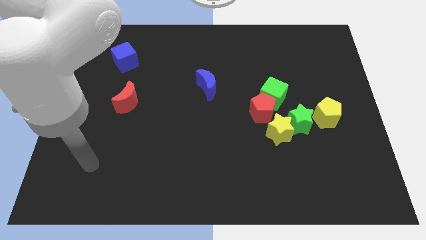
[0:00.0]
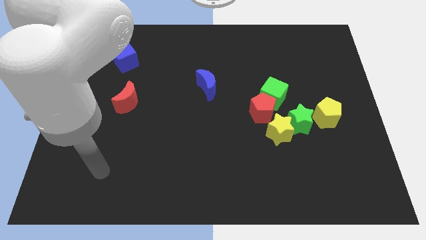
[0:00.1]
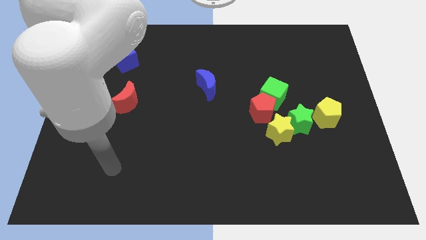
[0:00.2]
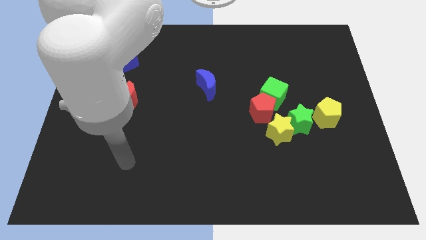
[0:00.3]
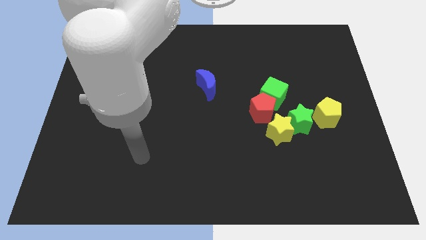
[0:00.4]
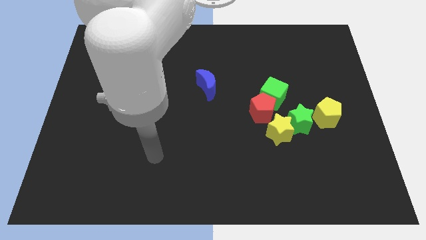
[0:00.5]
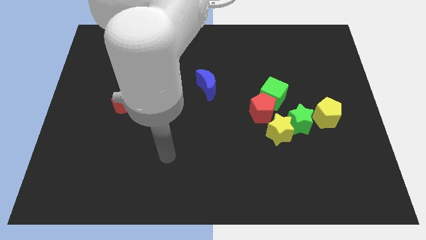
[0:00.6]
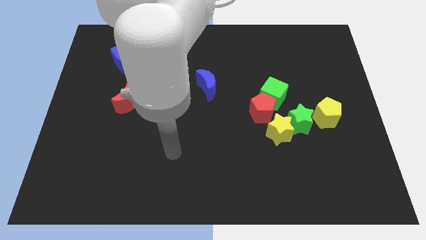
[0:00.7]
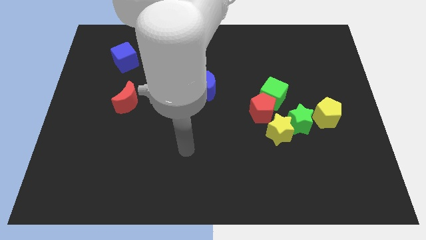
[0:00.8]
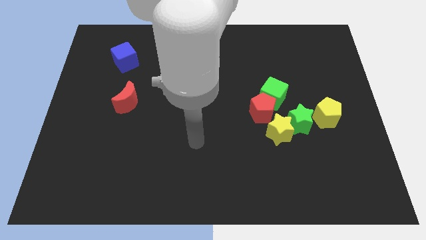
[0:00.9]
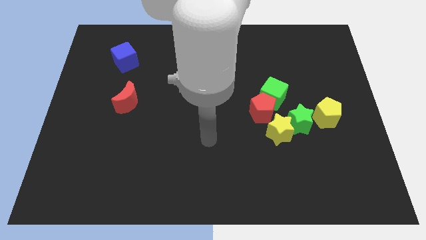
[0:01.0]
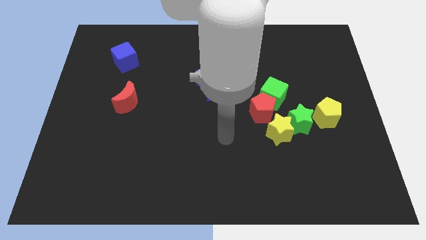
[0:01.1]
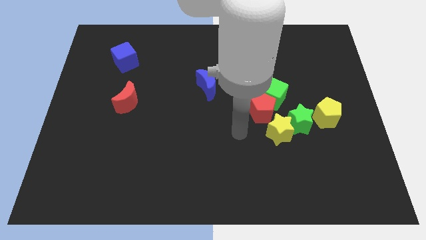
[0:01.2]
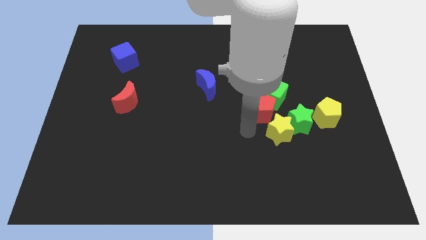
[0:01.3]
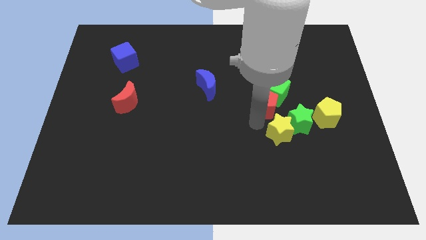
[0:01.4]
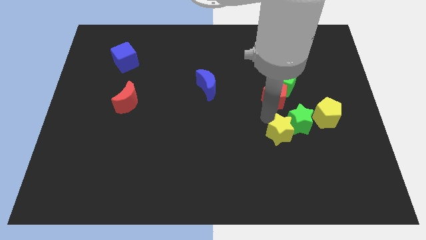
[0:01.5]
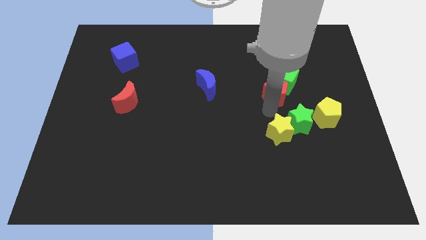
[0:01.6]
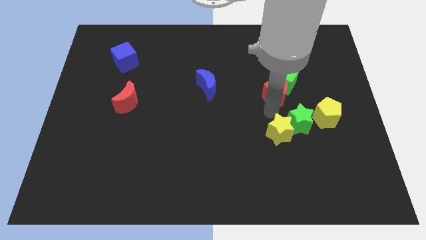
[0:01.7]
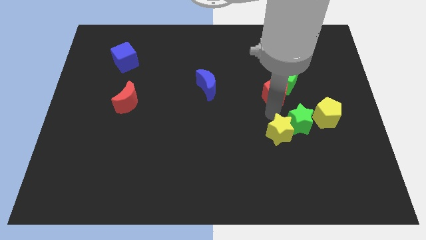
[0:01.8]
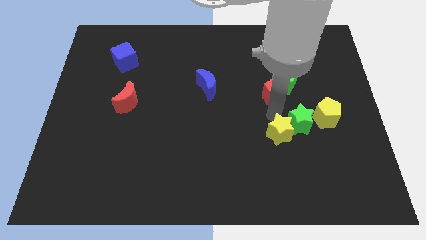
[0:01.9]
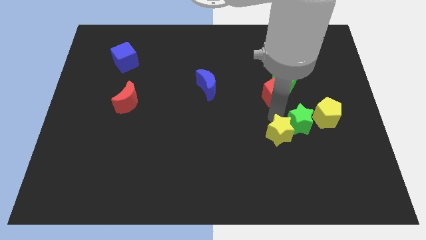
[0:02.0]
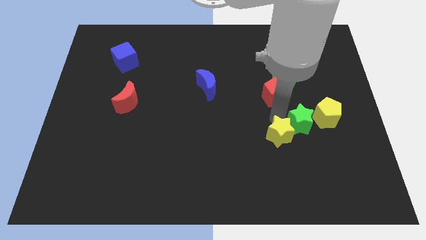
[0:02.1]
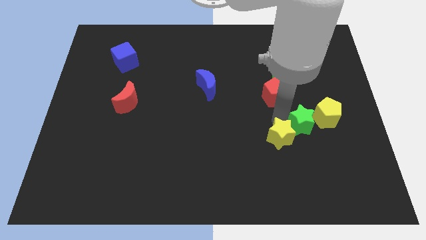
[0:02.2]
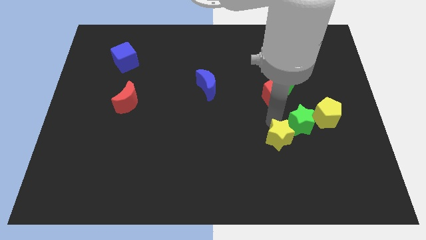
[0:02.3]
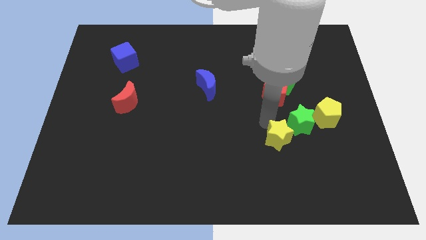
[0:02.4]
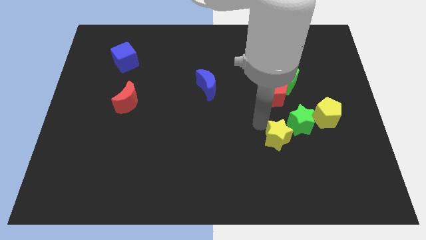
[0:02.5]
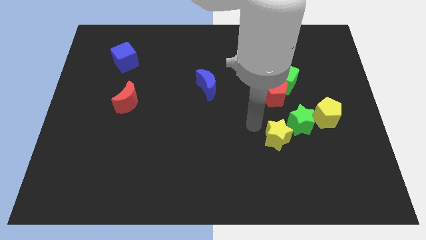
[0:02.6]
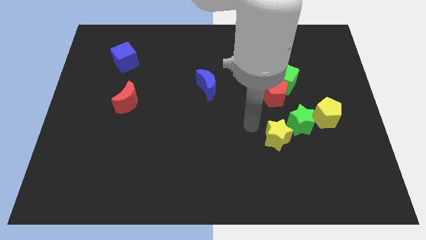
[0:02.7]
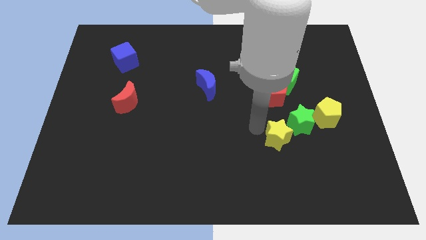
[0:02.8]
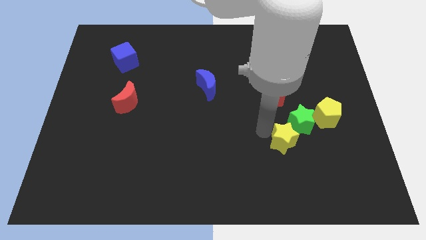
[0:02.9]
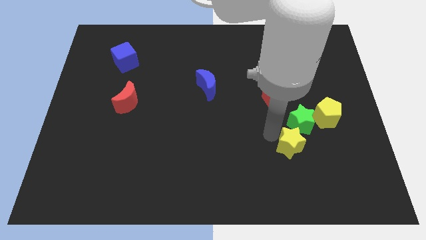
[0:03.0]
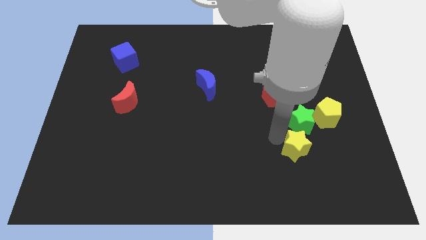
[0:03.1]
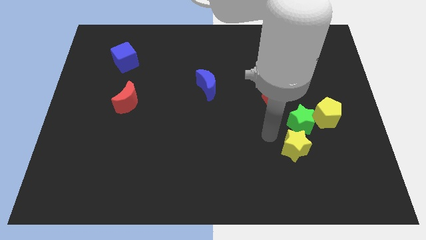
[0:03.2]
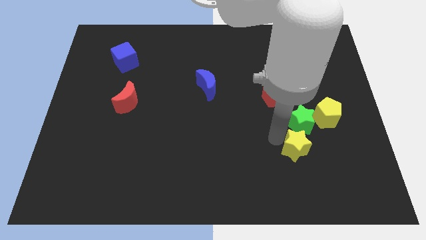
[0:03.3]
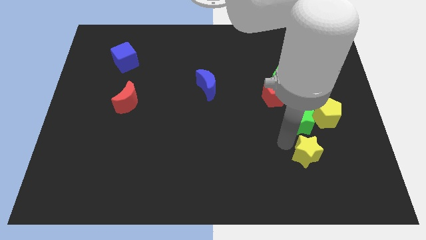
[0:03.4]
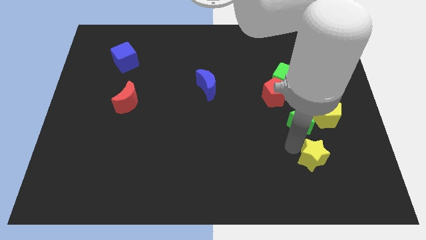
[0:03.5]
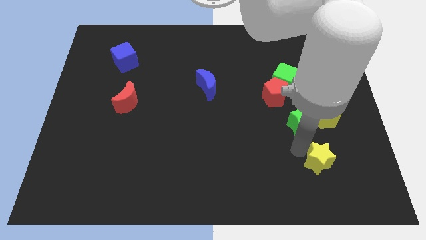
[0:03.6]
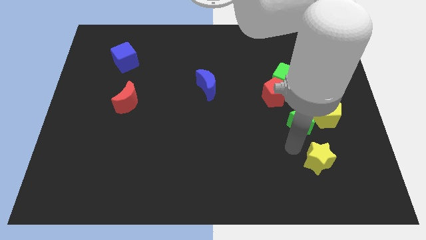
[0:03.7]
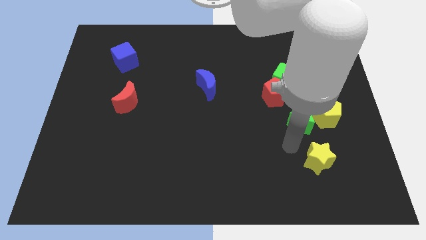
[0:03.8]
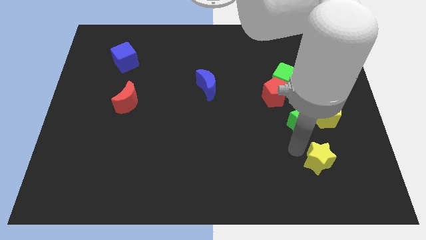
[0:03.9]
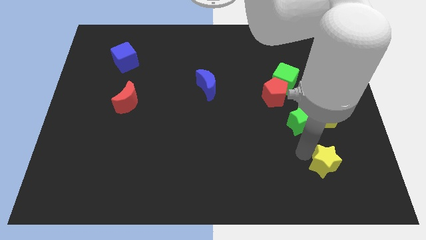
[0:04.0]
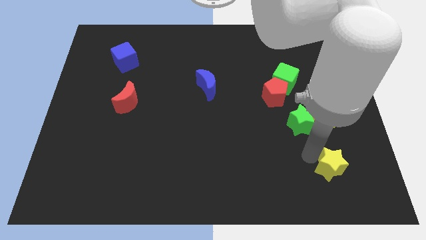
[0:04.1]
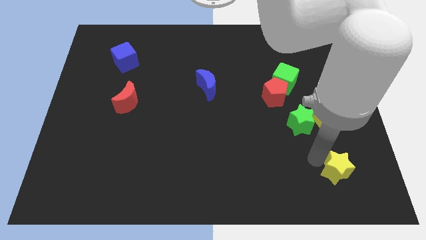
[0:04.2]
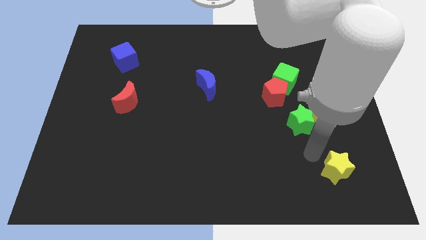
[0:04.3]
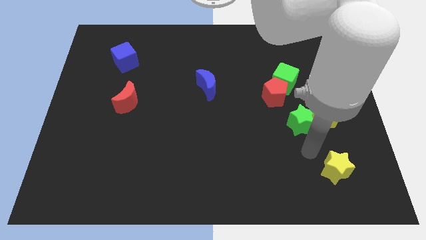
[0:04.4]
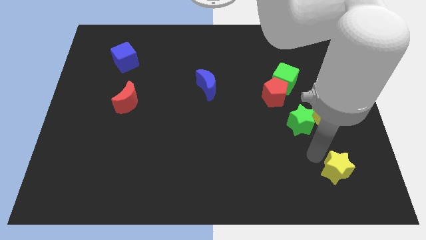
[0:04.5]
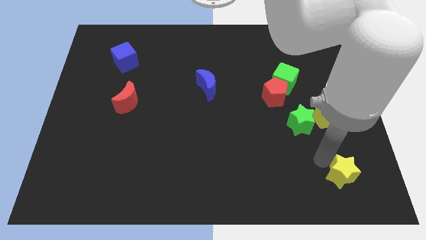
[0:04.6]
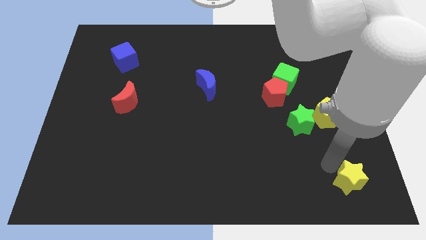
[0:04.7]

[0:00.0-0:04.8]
slide the yellow star to the bottom right

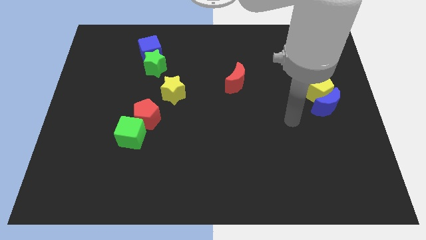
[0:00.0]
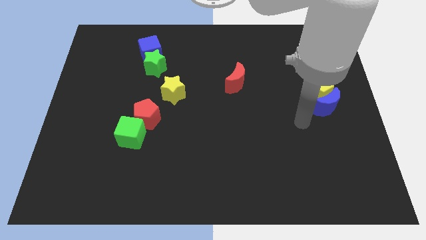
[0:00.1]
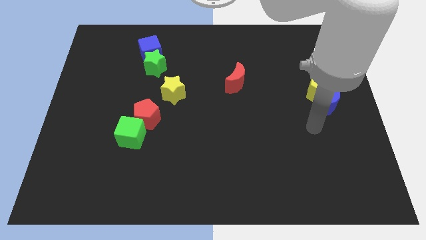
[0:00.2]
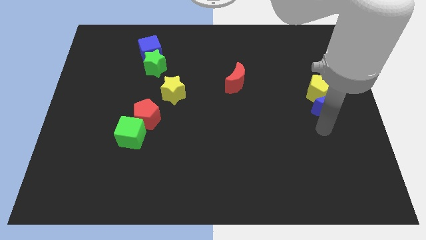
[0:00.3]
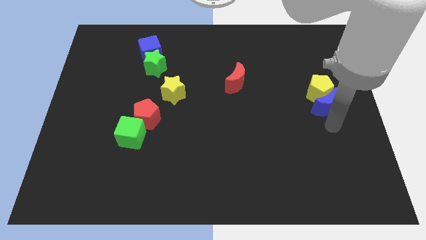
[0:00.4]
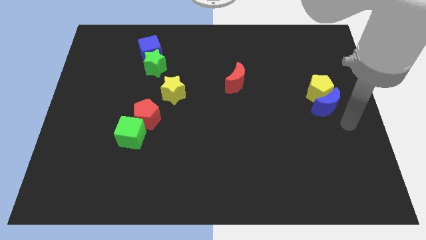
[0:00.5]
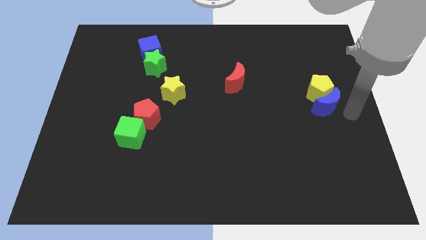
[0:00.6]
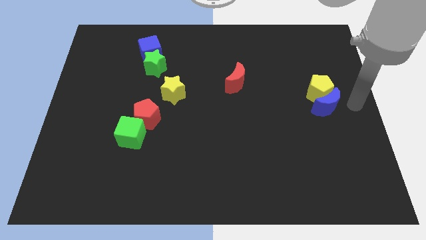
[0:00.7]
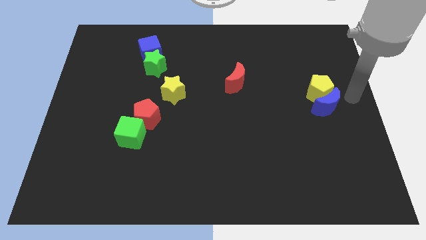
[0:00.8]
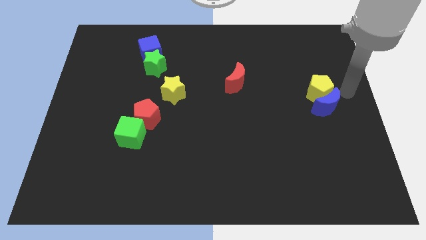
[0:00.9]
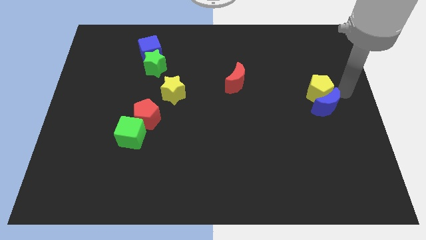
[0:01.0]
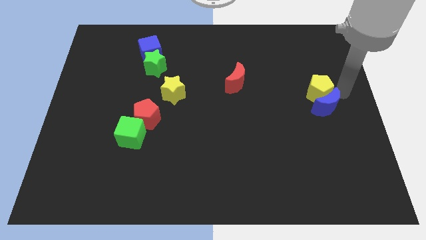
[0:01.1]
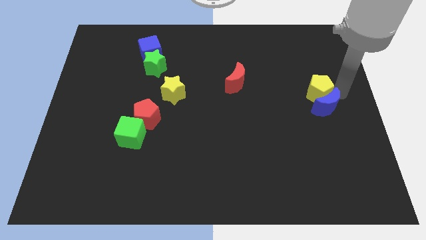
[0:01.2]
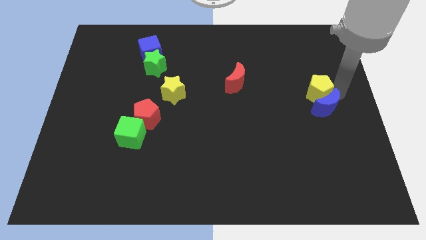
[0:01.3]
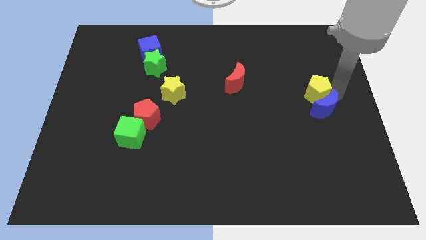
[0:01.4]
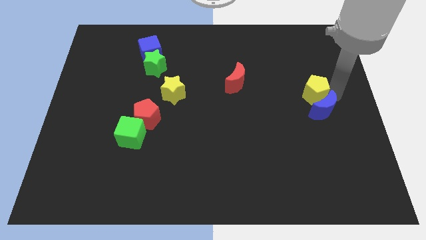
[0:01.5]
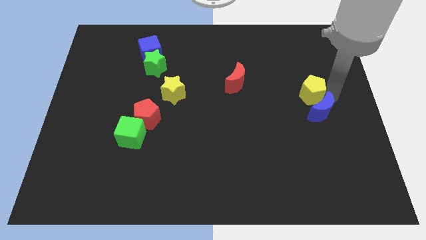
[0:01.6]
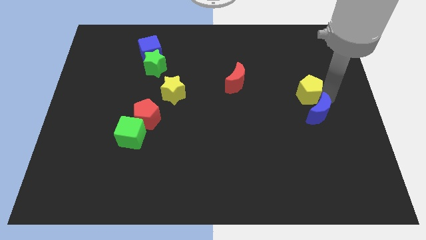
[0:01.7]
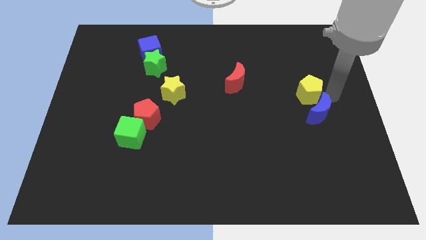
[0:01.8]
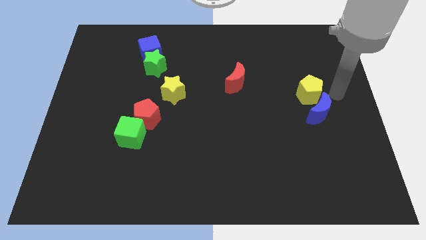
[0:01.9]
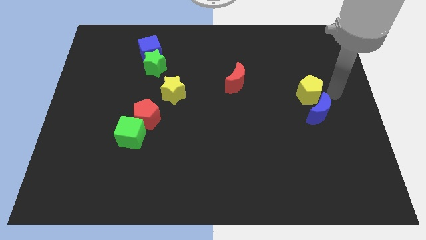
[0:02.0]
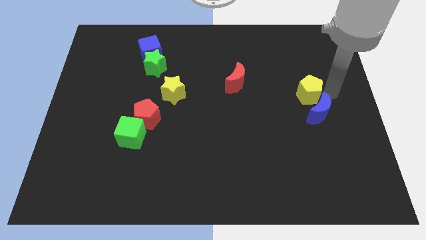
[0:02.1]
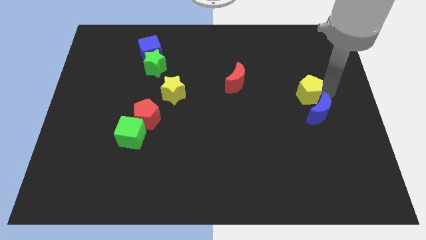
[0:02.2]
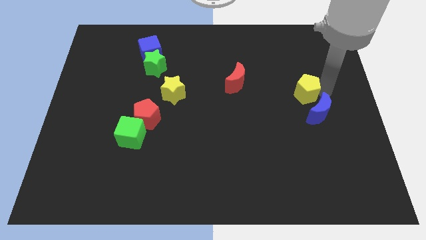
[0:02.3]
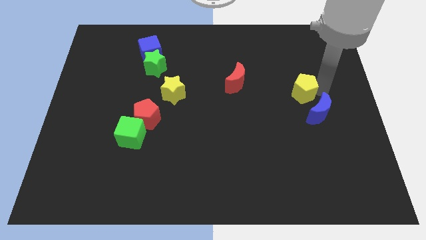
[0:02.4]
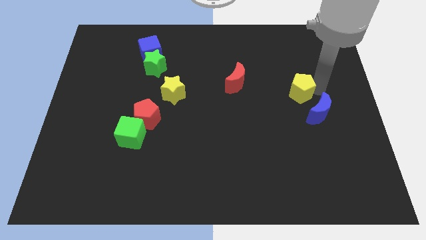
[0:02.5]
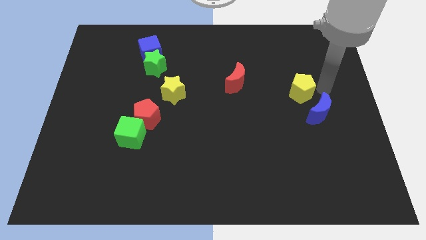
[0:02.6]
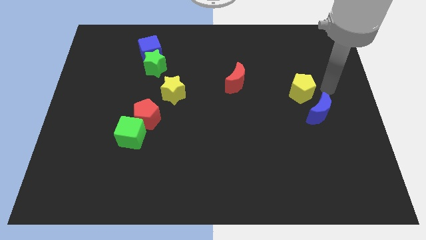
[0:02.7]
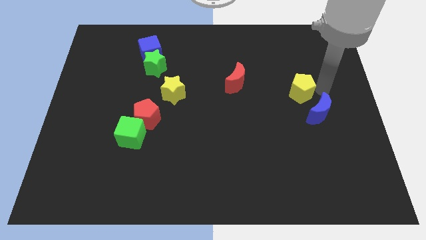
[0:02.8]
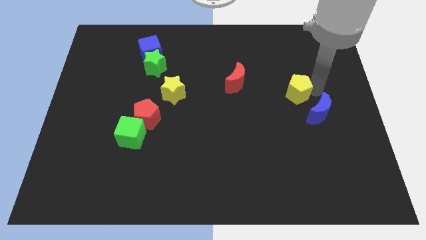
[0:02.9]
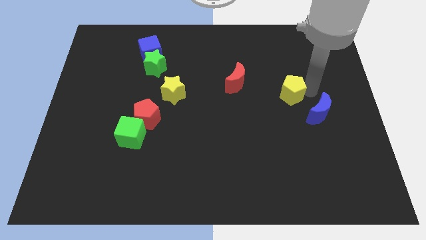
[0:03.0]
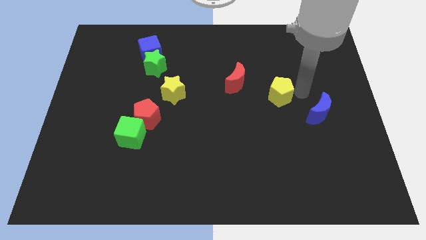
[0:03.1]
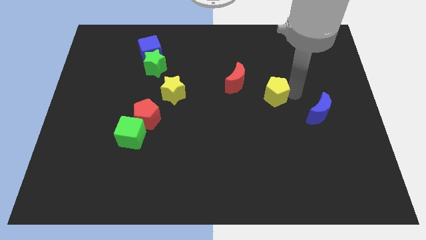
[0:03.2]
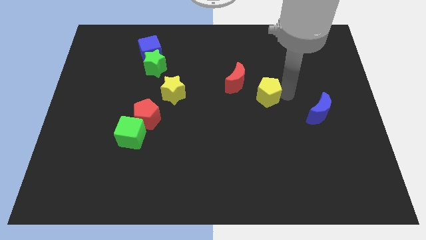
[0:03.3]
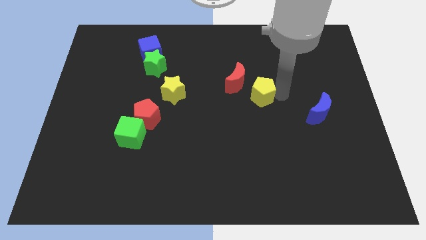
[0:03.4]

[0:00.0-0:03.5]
move the yellow pentagon to the middle of the board
